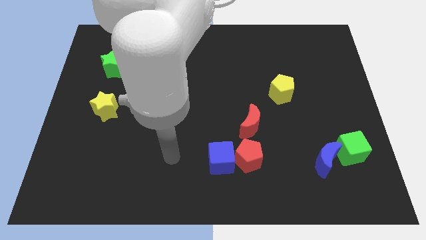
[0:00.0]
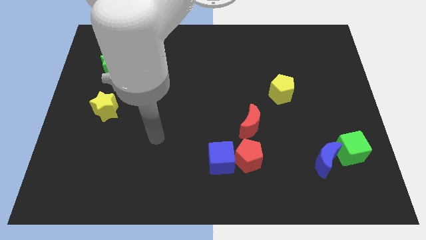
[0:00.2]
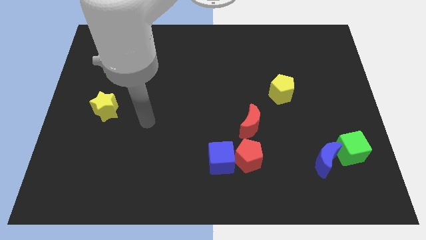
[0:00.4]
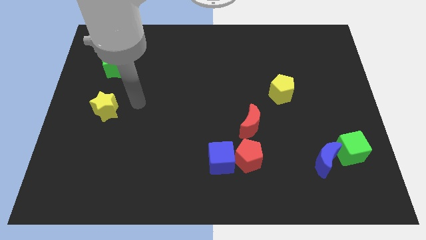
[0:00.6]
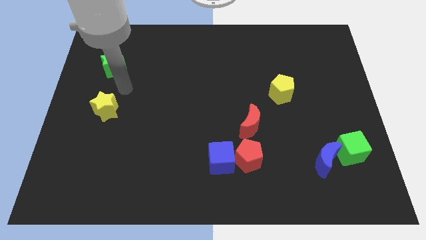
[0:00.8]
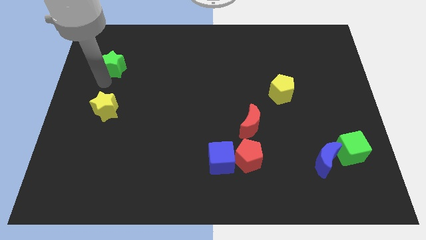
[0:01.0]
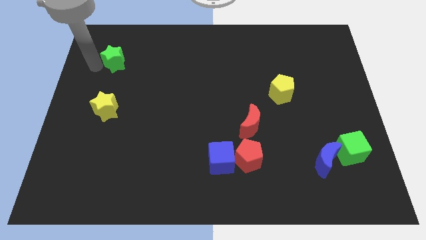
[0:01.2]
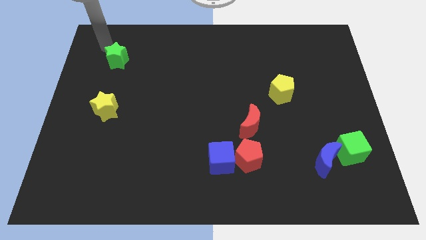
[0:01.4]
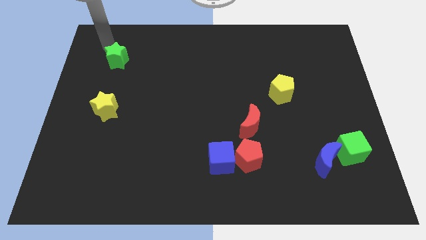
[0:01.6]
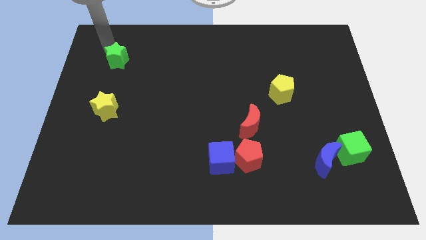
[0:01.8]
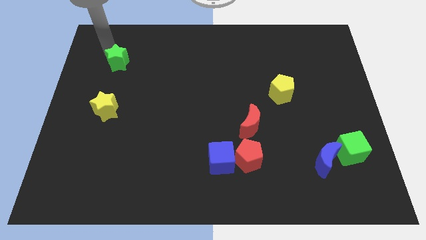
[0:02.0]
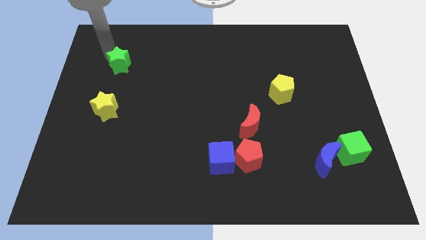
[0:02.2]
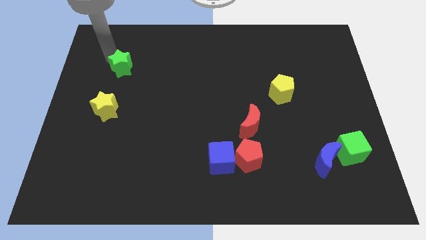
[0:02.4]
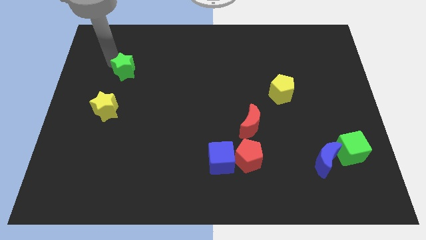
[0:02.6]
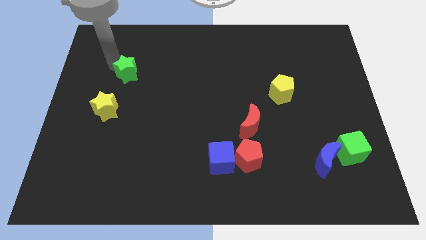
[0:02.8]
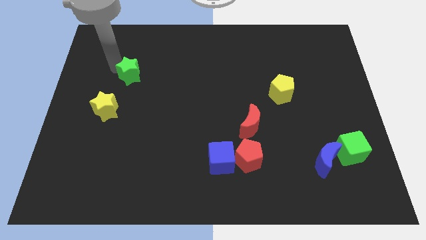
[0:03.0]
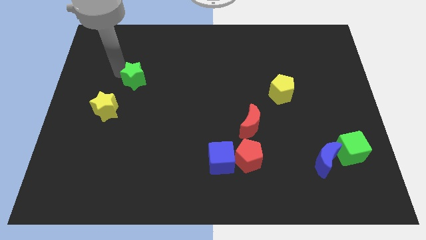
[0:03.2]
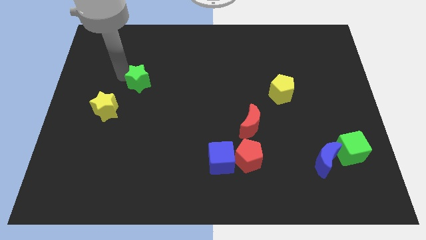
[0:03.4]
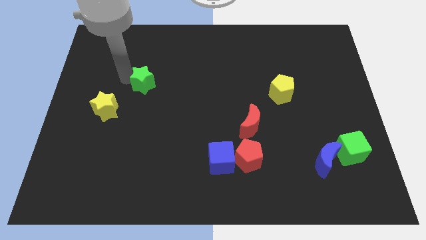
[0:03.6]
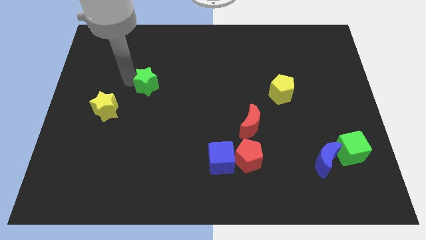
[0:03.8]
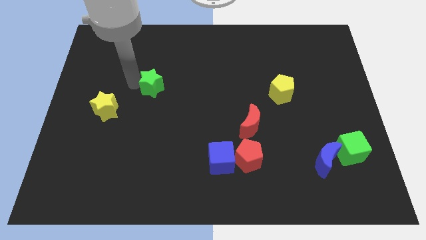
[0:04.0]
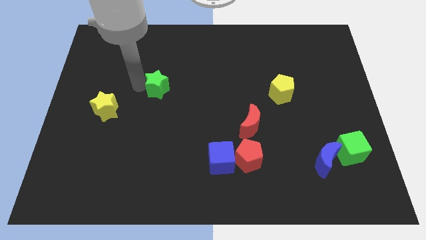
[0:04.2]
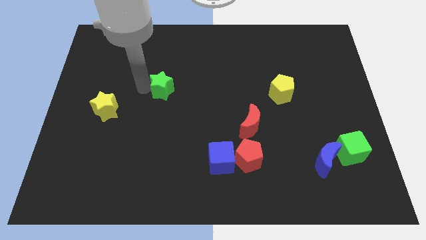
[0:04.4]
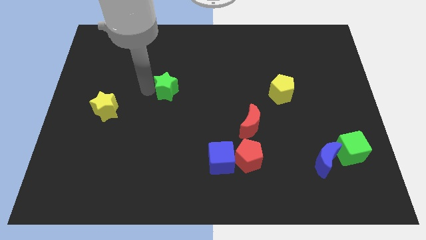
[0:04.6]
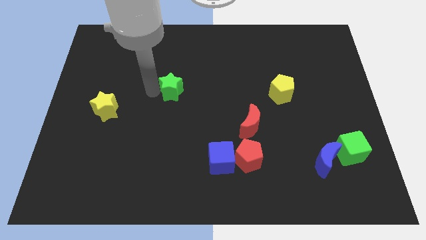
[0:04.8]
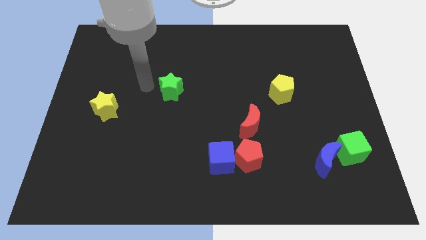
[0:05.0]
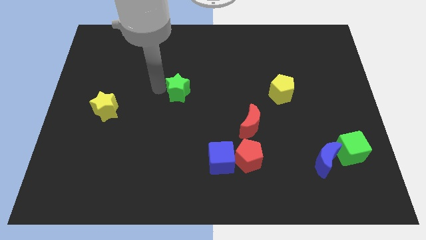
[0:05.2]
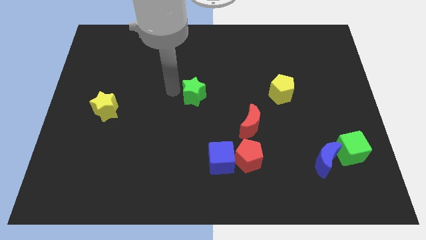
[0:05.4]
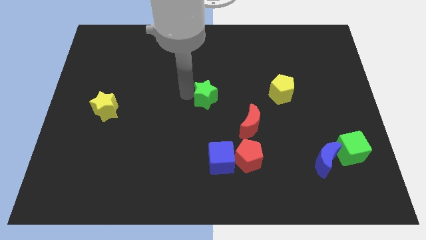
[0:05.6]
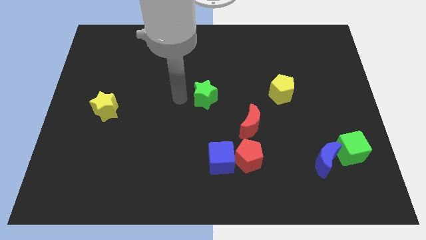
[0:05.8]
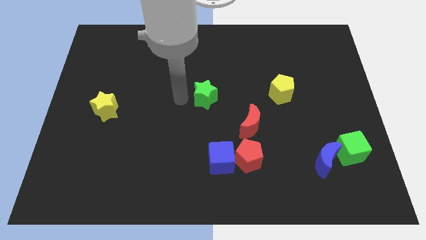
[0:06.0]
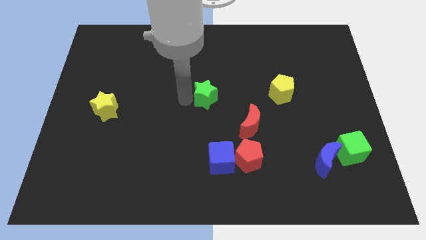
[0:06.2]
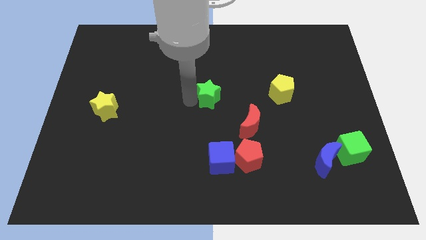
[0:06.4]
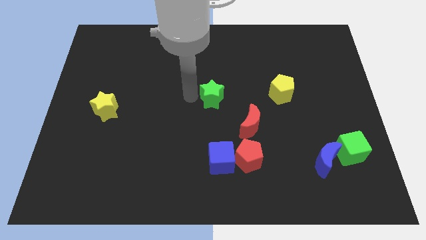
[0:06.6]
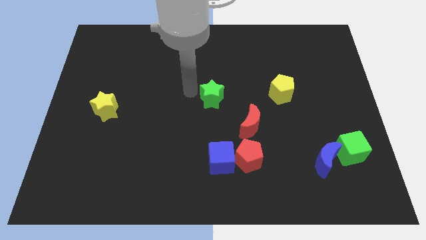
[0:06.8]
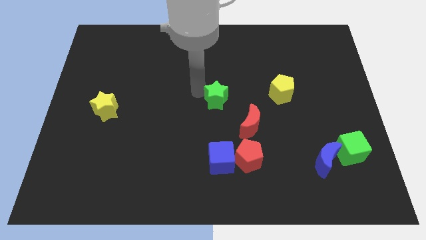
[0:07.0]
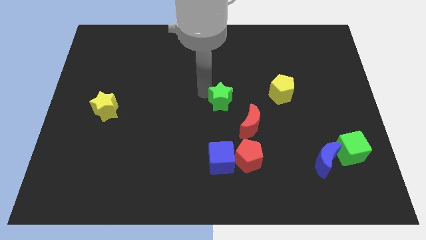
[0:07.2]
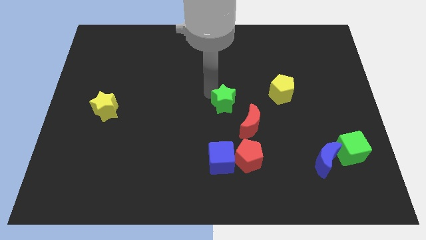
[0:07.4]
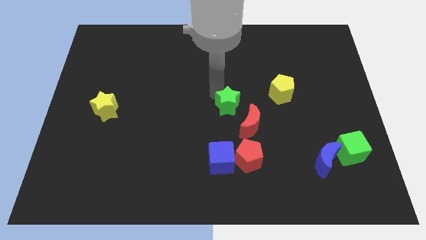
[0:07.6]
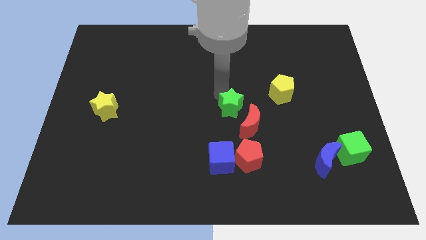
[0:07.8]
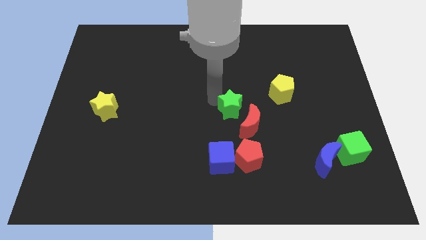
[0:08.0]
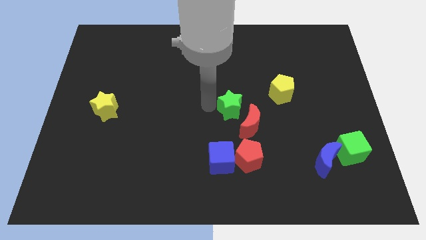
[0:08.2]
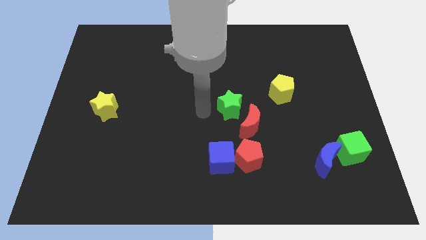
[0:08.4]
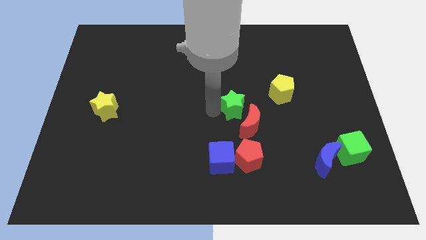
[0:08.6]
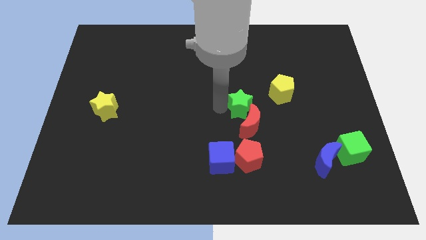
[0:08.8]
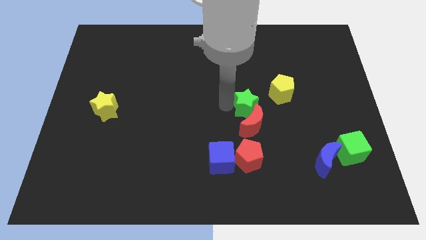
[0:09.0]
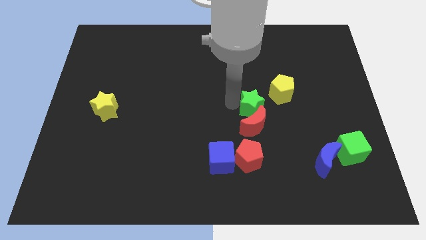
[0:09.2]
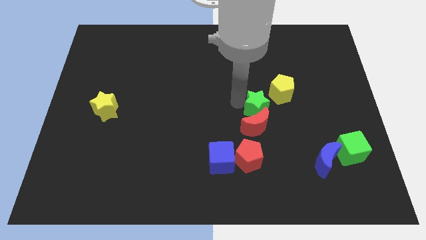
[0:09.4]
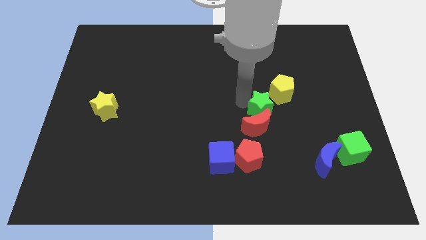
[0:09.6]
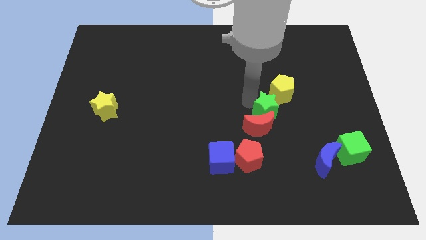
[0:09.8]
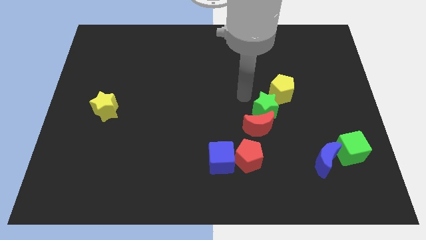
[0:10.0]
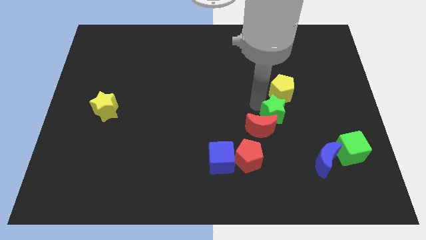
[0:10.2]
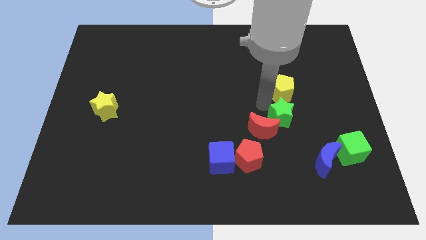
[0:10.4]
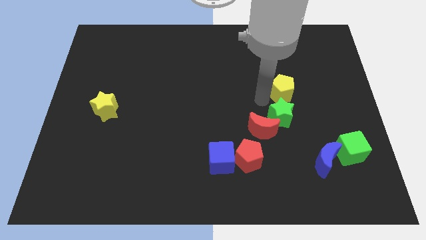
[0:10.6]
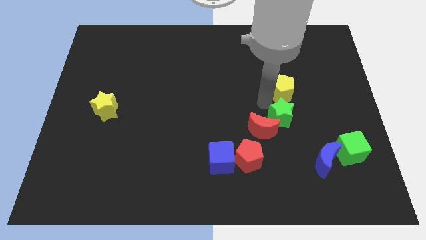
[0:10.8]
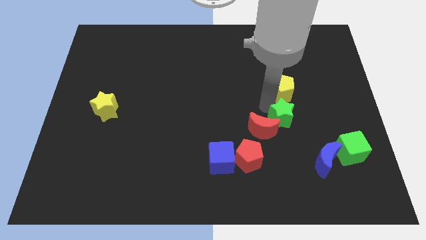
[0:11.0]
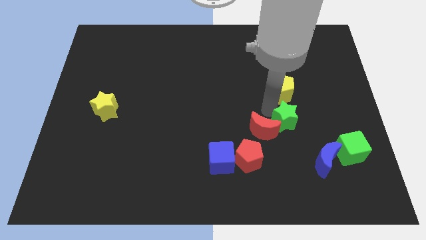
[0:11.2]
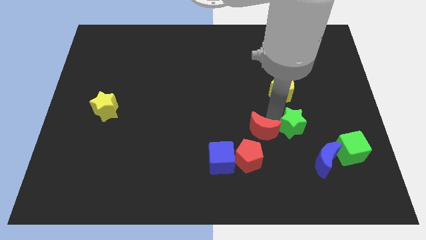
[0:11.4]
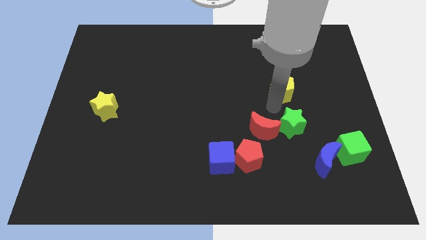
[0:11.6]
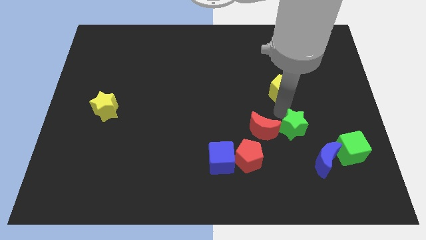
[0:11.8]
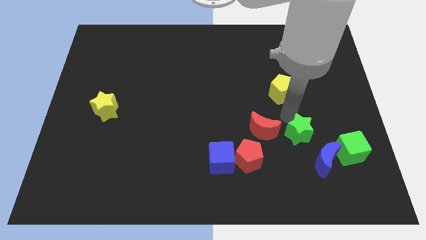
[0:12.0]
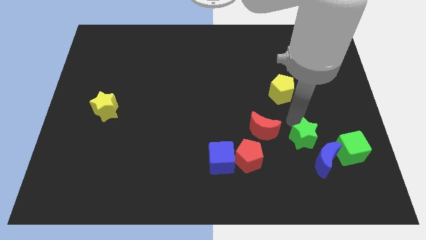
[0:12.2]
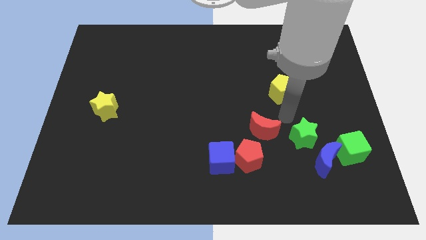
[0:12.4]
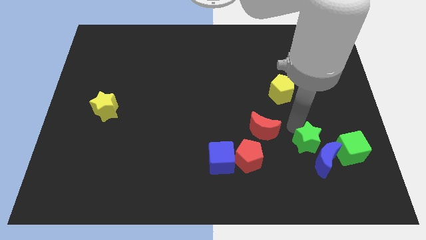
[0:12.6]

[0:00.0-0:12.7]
put the green star towards the blue moon

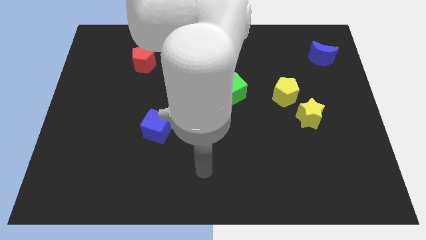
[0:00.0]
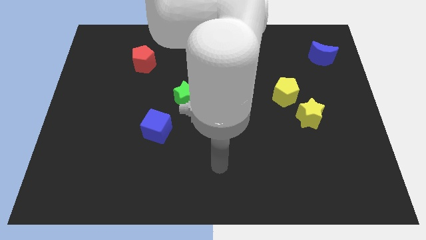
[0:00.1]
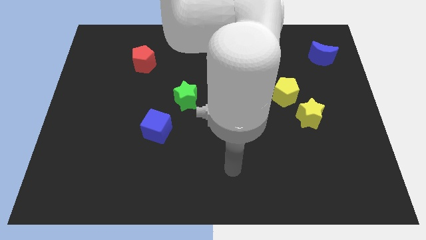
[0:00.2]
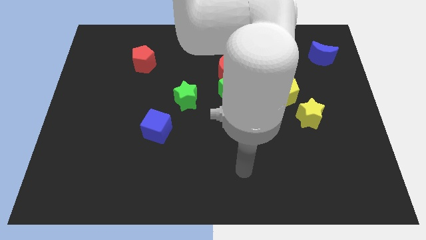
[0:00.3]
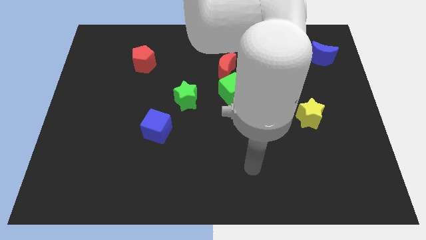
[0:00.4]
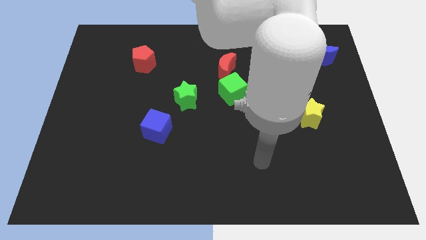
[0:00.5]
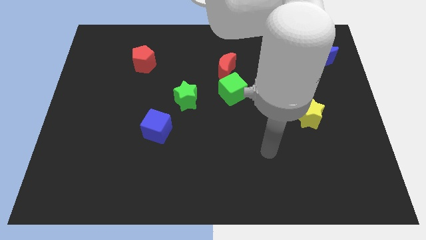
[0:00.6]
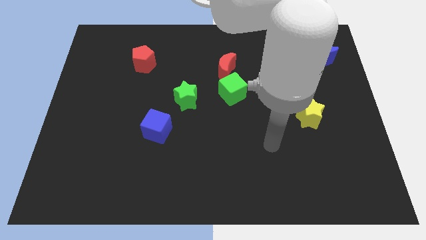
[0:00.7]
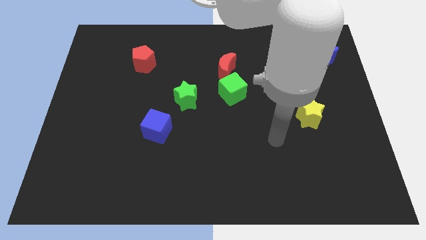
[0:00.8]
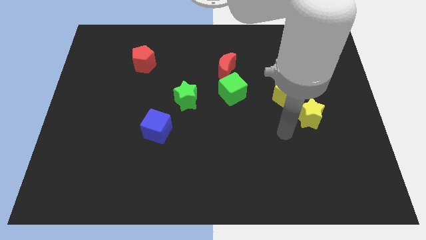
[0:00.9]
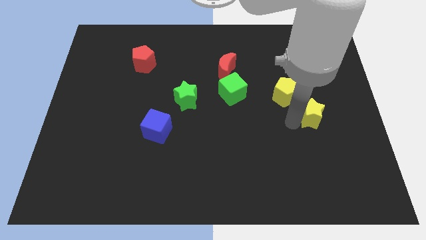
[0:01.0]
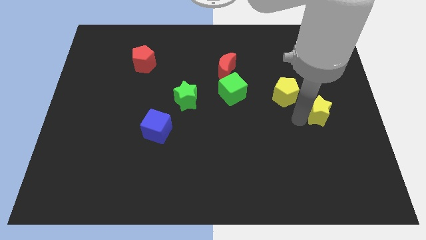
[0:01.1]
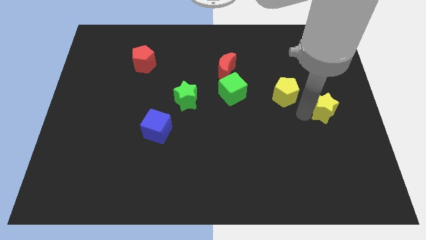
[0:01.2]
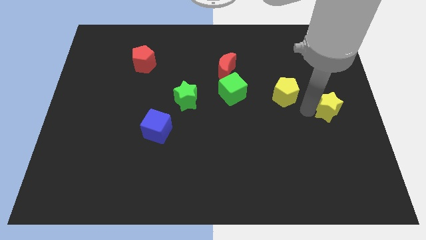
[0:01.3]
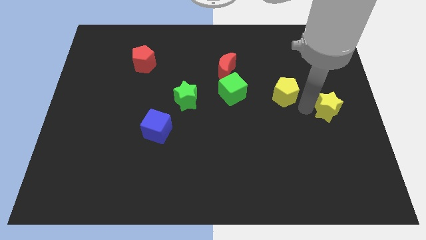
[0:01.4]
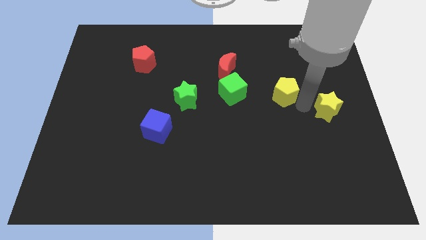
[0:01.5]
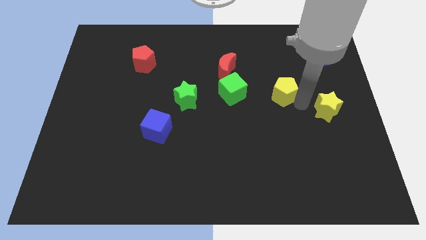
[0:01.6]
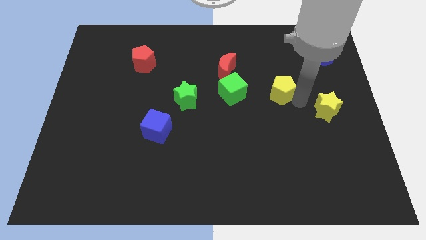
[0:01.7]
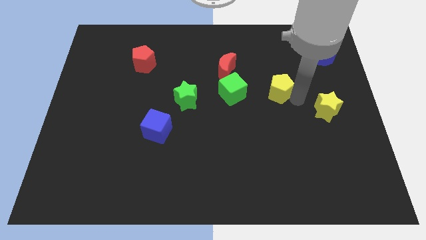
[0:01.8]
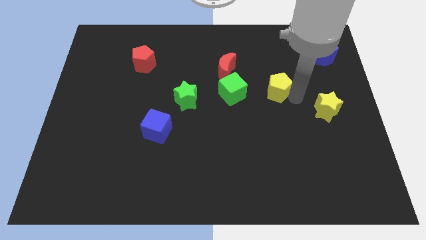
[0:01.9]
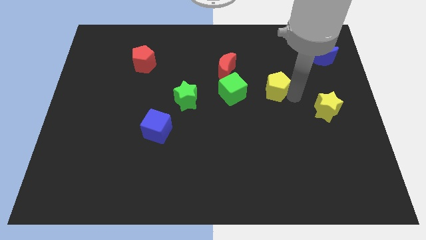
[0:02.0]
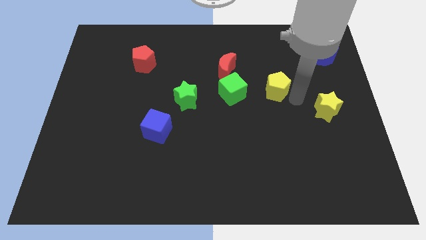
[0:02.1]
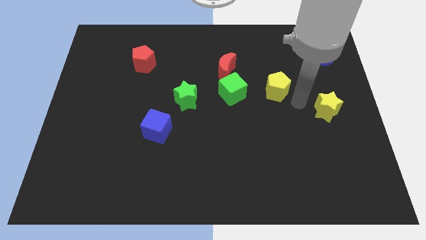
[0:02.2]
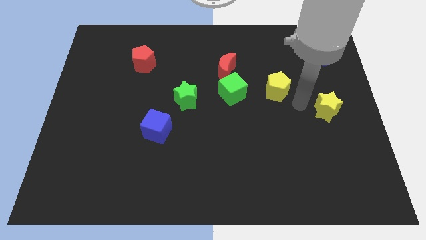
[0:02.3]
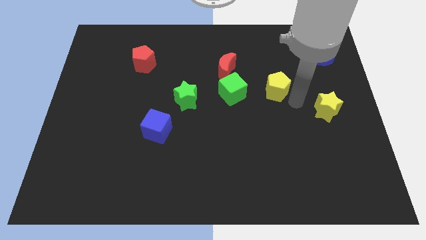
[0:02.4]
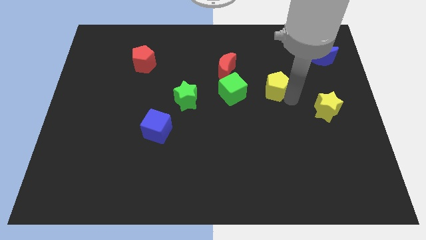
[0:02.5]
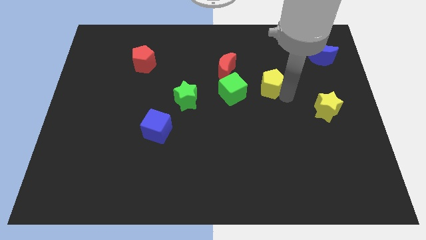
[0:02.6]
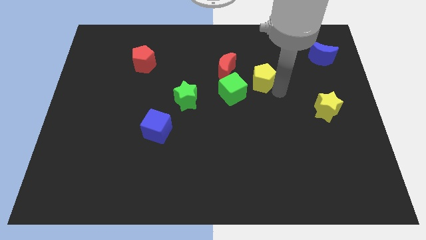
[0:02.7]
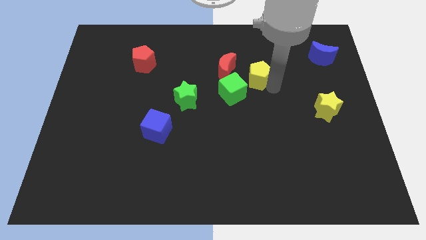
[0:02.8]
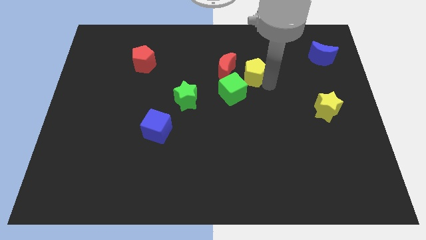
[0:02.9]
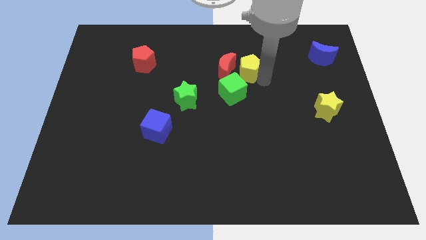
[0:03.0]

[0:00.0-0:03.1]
push the yellow pentagon to the red moon
